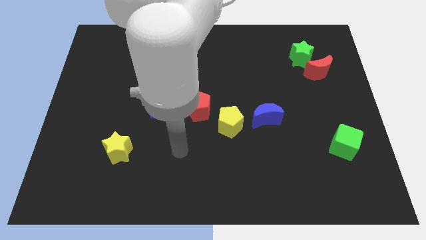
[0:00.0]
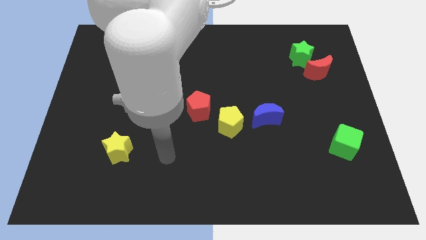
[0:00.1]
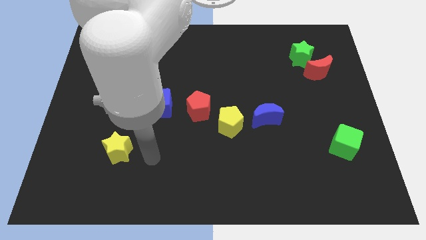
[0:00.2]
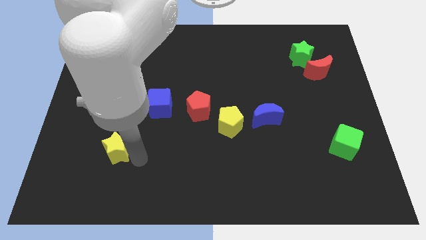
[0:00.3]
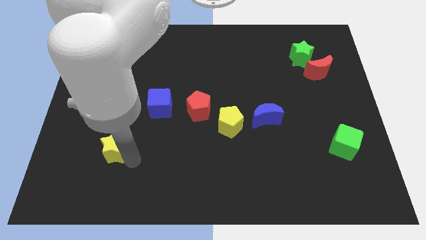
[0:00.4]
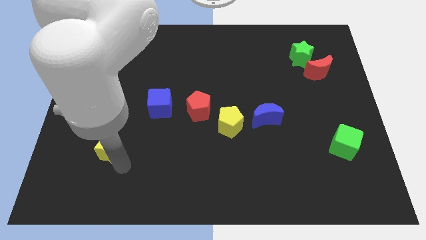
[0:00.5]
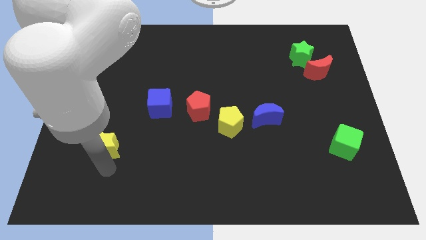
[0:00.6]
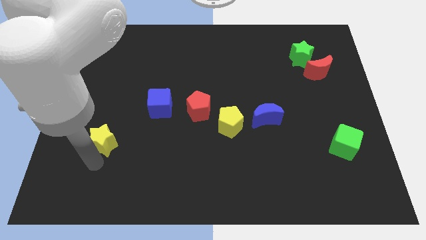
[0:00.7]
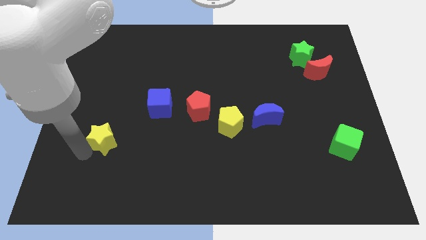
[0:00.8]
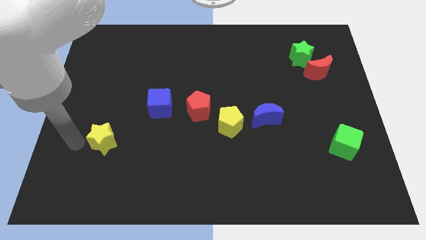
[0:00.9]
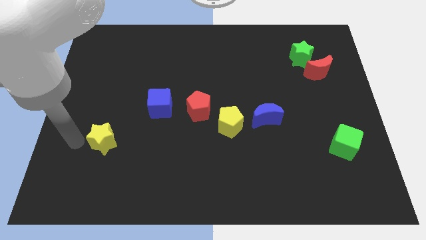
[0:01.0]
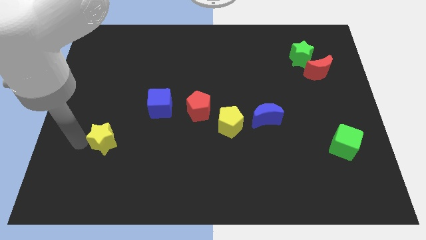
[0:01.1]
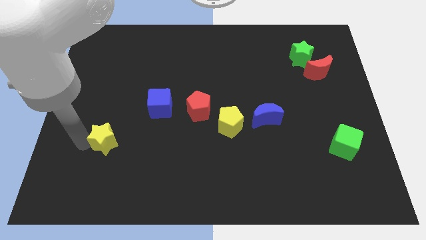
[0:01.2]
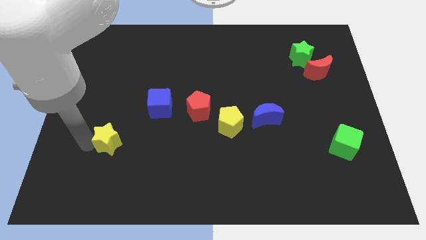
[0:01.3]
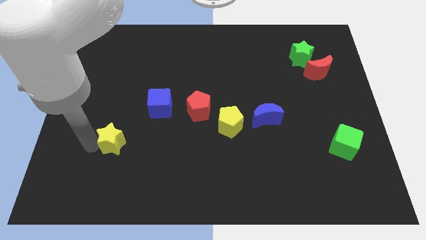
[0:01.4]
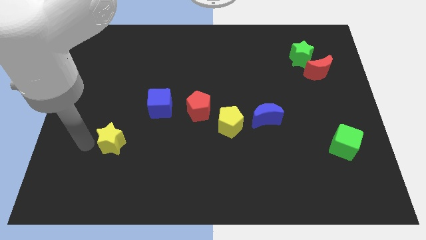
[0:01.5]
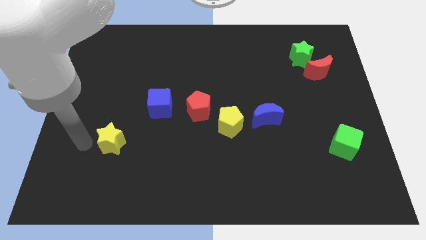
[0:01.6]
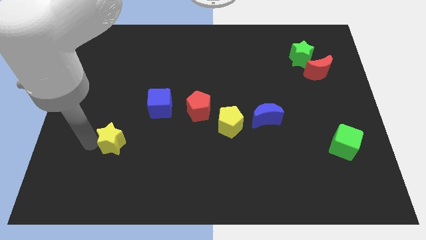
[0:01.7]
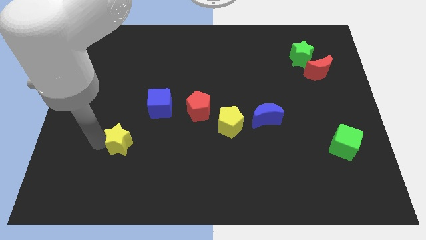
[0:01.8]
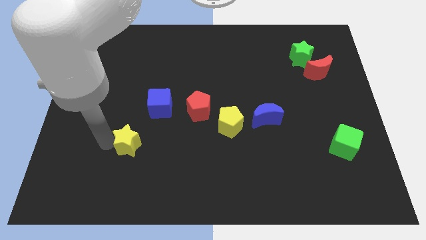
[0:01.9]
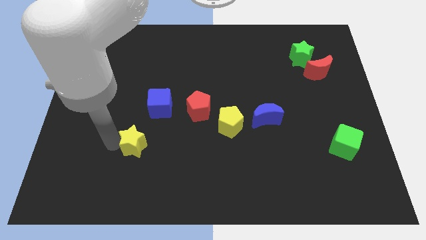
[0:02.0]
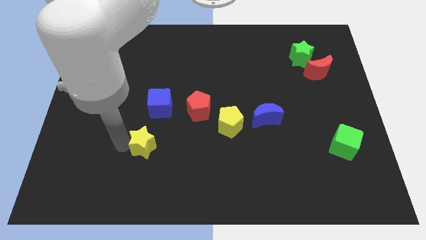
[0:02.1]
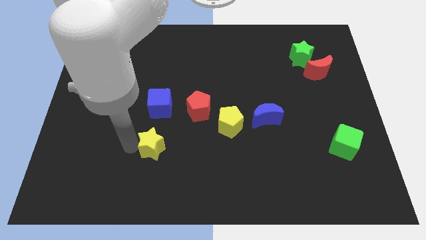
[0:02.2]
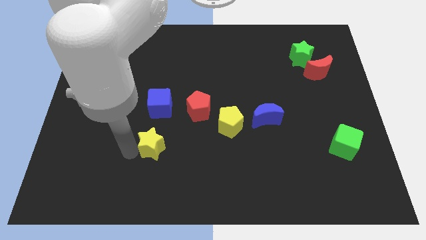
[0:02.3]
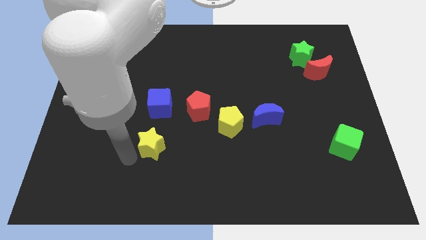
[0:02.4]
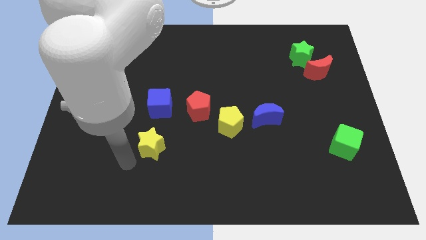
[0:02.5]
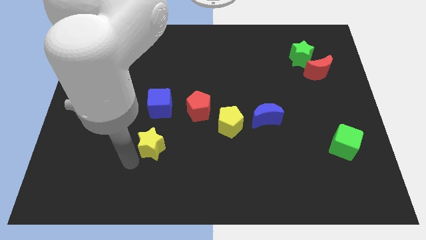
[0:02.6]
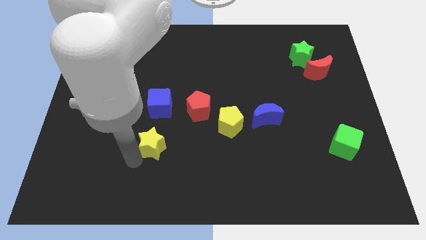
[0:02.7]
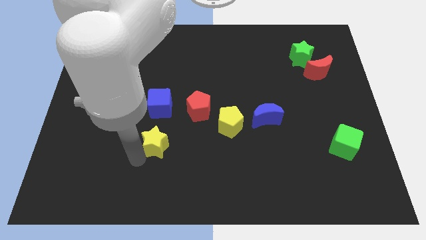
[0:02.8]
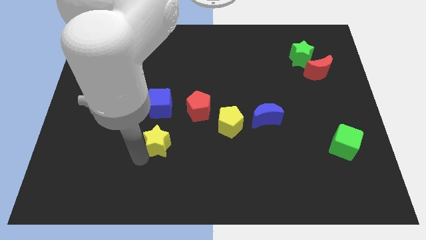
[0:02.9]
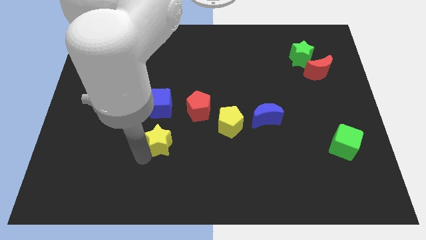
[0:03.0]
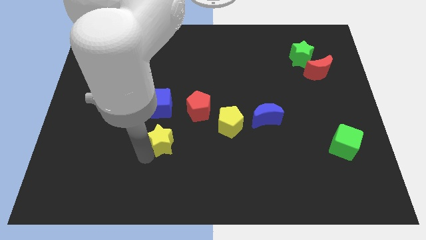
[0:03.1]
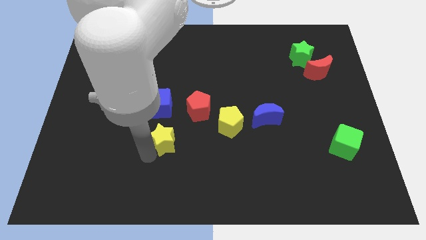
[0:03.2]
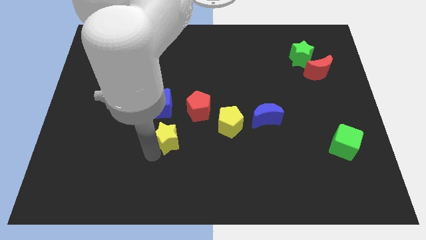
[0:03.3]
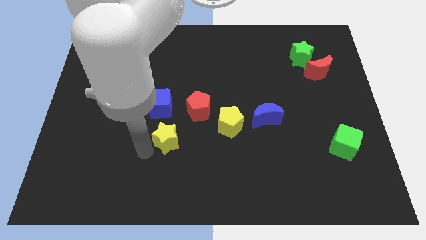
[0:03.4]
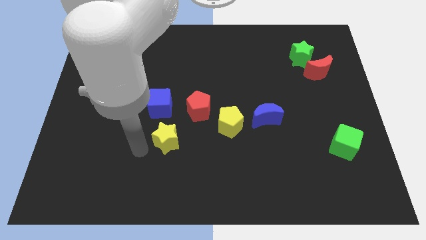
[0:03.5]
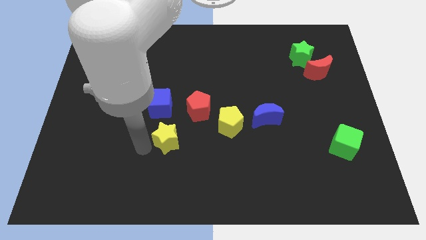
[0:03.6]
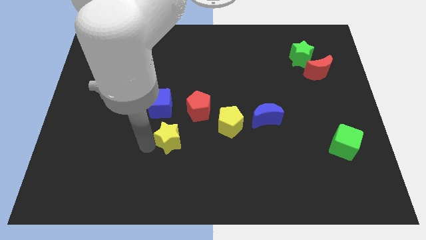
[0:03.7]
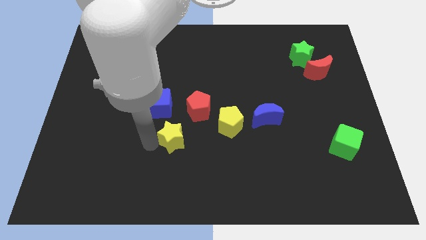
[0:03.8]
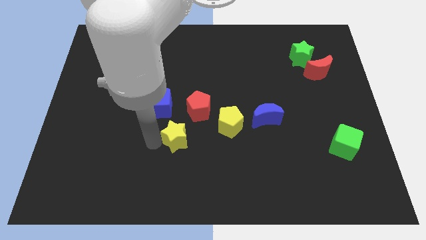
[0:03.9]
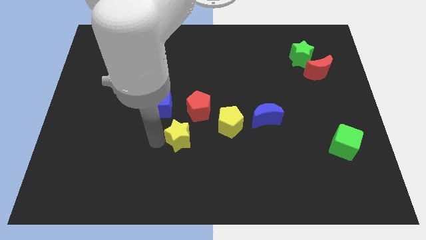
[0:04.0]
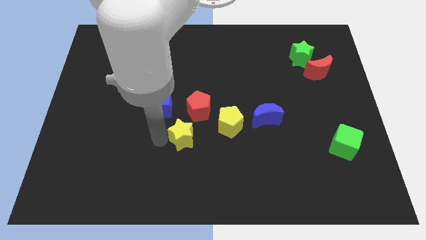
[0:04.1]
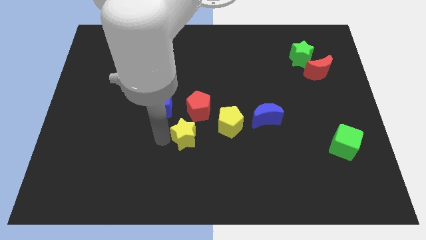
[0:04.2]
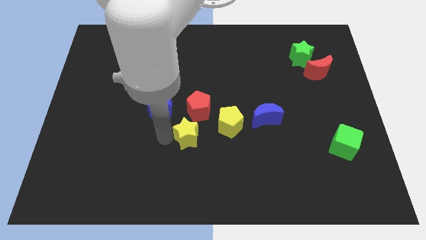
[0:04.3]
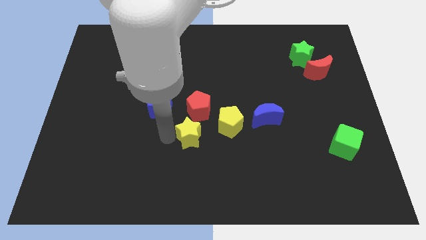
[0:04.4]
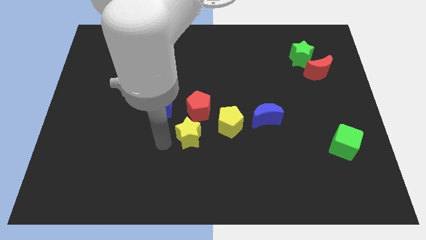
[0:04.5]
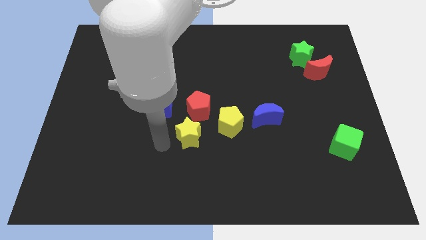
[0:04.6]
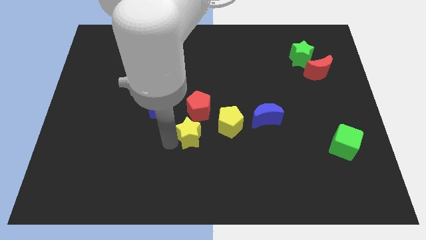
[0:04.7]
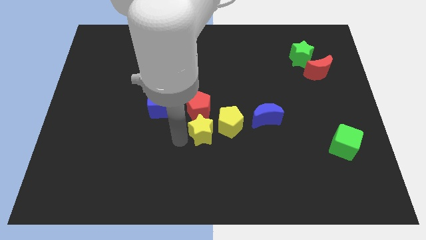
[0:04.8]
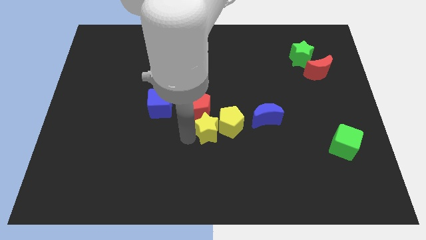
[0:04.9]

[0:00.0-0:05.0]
slide the yellow star towards the yellow pentagon

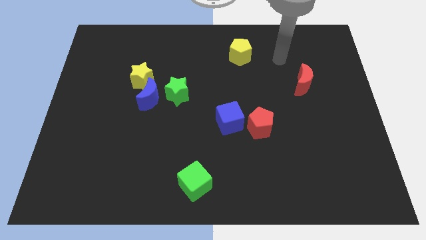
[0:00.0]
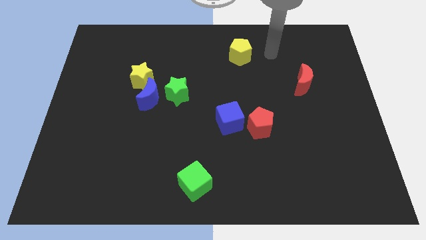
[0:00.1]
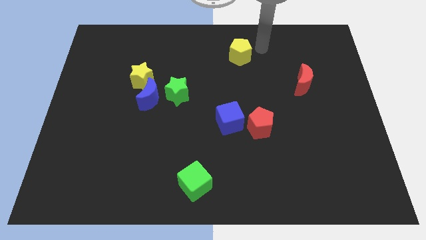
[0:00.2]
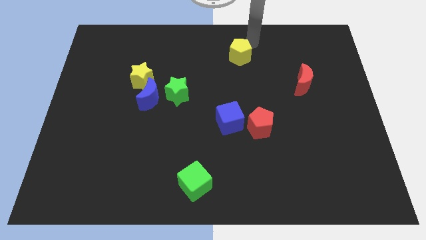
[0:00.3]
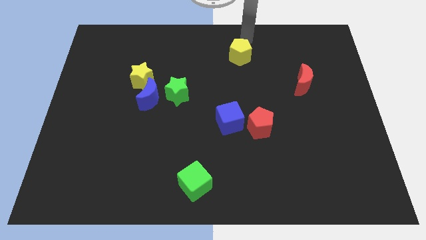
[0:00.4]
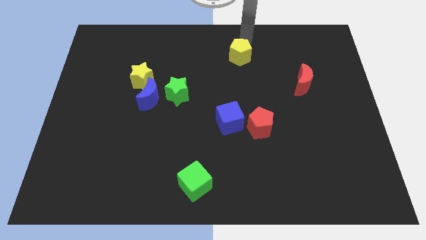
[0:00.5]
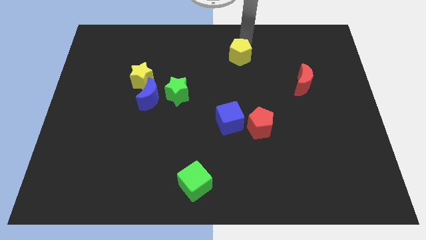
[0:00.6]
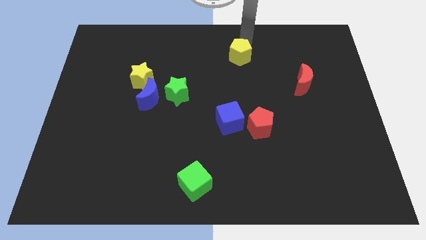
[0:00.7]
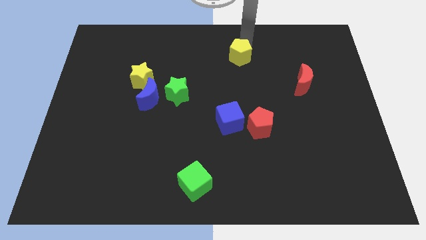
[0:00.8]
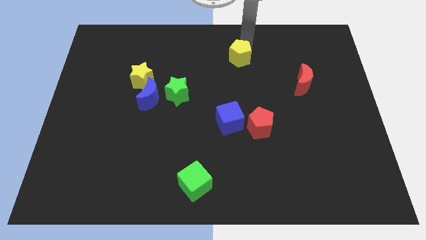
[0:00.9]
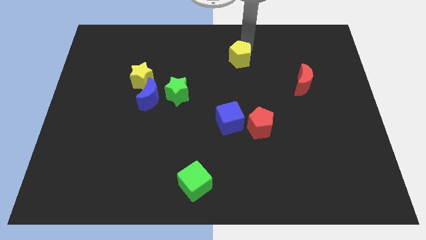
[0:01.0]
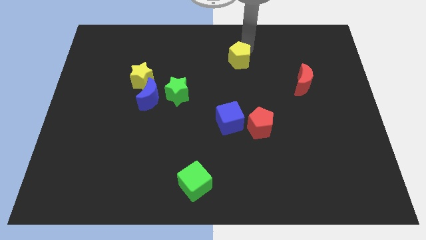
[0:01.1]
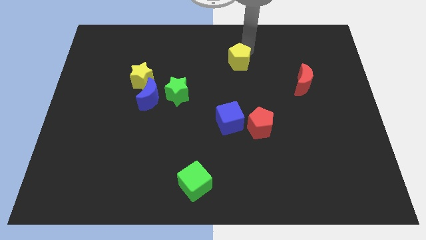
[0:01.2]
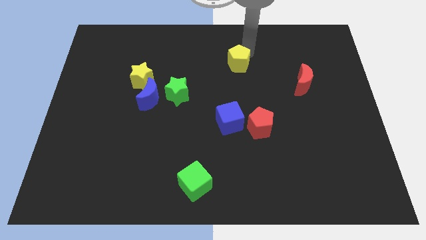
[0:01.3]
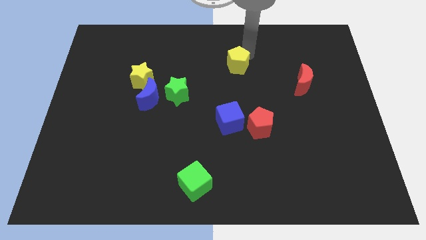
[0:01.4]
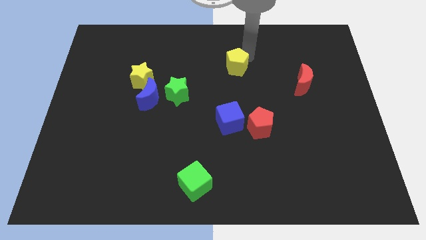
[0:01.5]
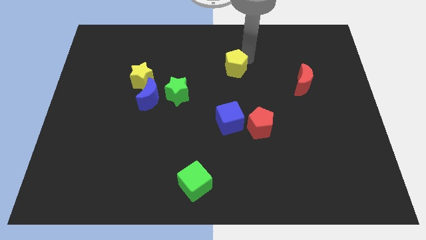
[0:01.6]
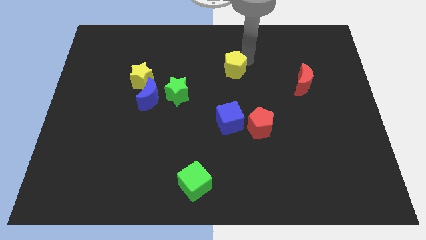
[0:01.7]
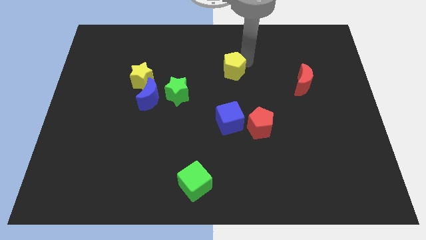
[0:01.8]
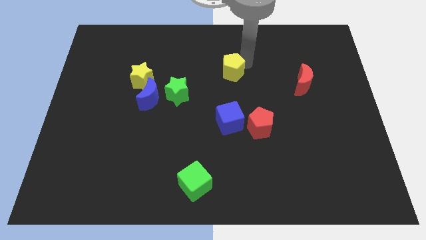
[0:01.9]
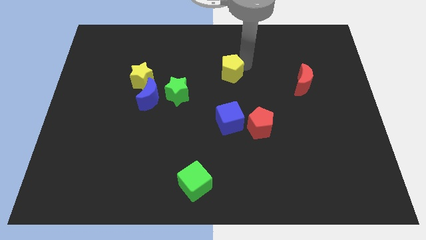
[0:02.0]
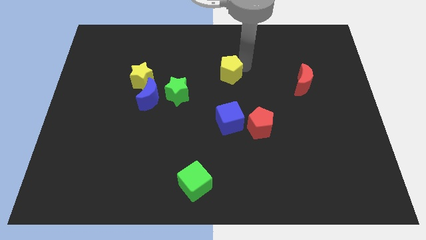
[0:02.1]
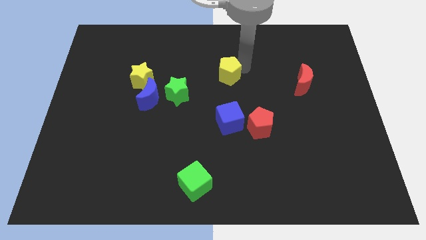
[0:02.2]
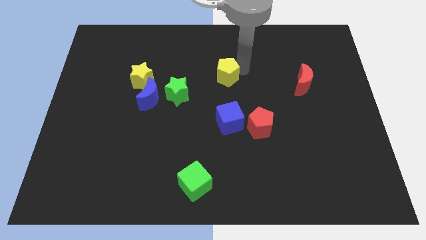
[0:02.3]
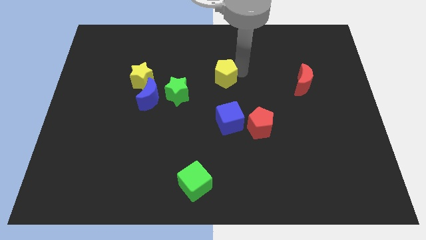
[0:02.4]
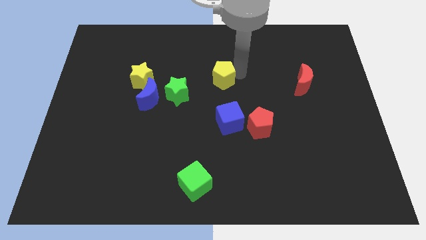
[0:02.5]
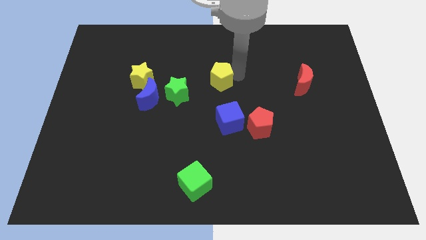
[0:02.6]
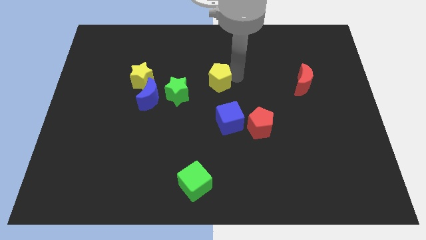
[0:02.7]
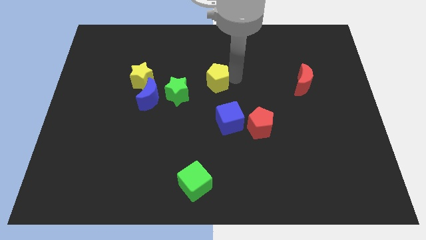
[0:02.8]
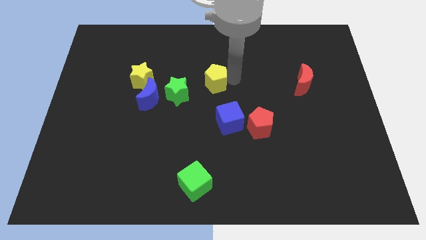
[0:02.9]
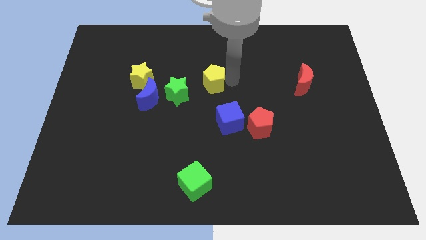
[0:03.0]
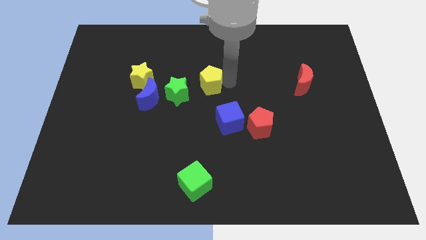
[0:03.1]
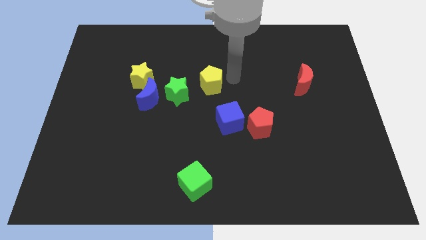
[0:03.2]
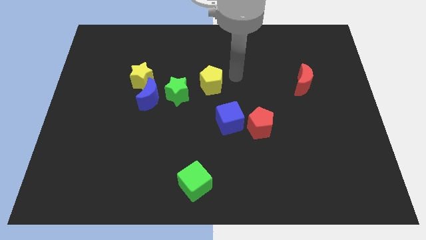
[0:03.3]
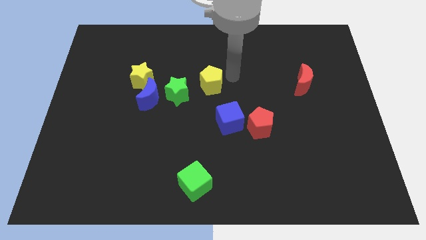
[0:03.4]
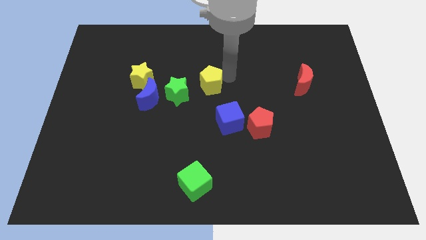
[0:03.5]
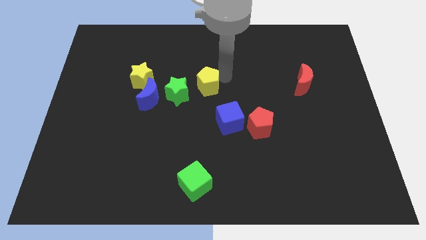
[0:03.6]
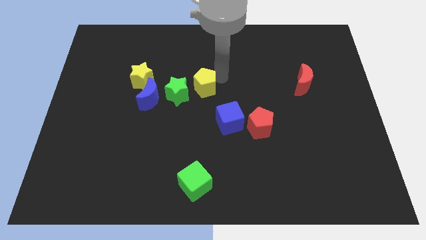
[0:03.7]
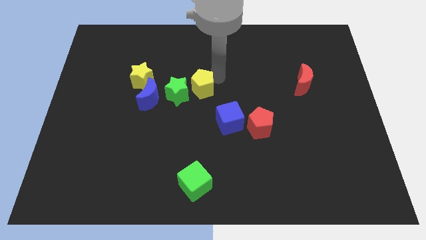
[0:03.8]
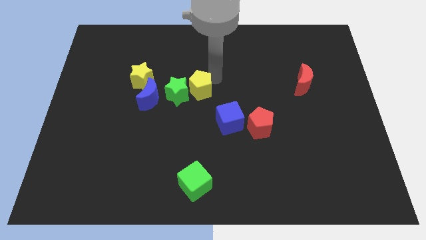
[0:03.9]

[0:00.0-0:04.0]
move the yellow pentagon towards the green star
